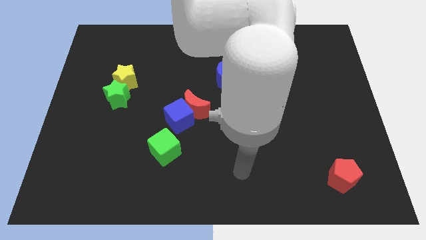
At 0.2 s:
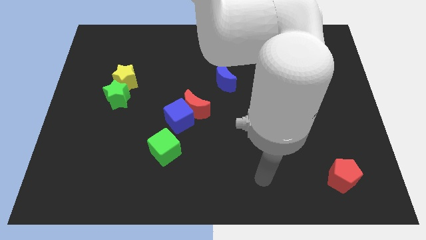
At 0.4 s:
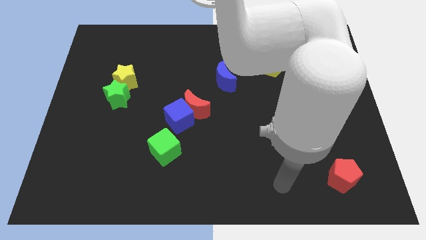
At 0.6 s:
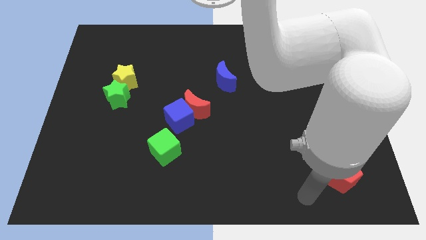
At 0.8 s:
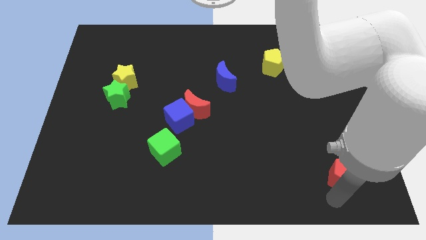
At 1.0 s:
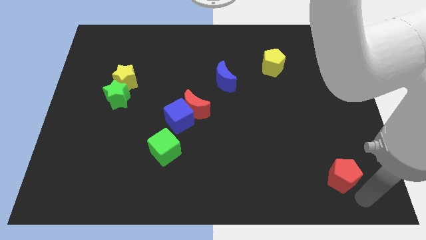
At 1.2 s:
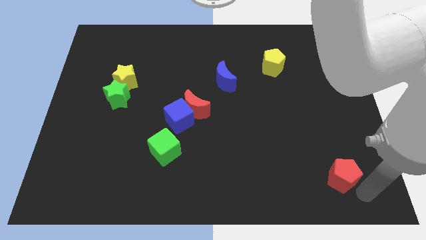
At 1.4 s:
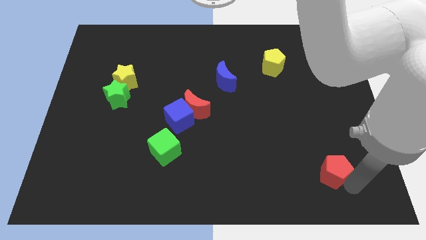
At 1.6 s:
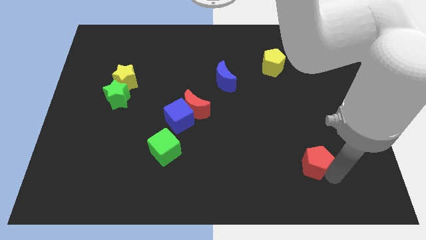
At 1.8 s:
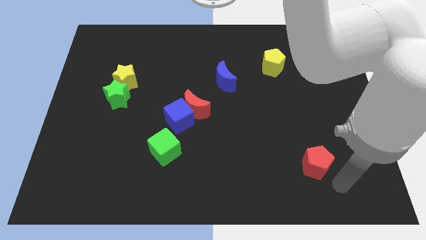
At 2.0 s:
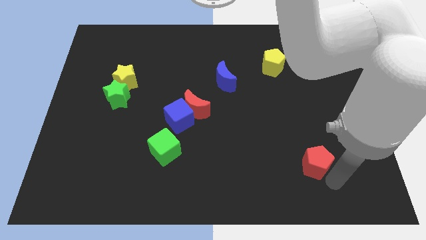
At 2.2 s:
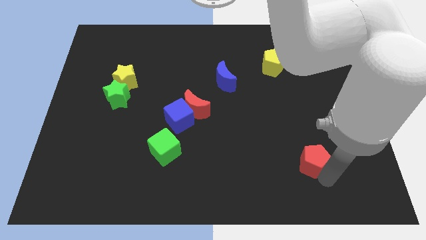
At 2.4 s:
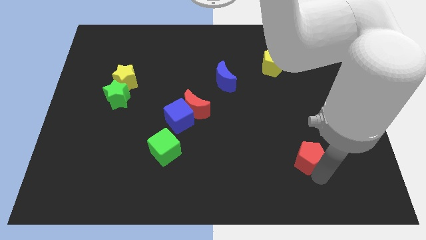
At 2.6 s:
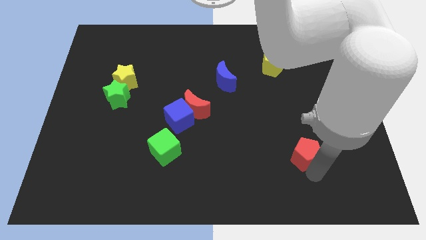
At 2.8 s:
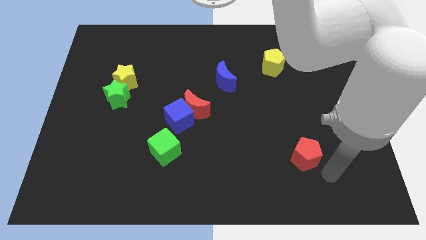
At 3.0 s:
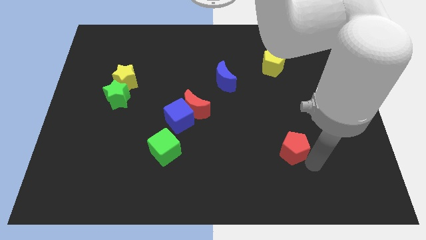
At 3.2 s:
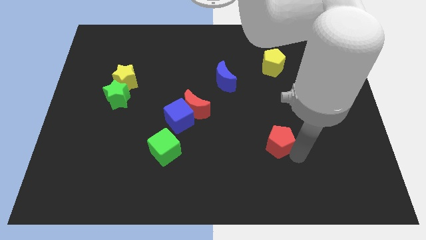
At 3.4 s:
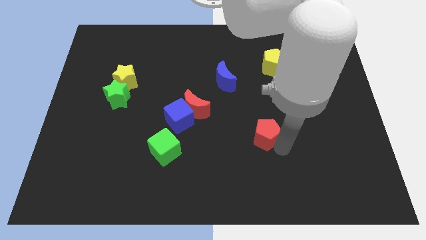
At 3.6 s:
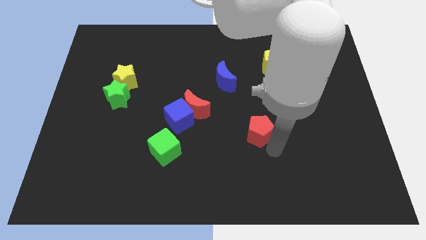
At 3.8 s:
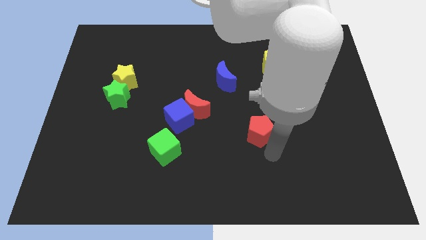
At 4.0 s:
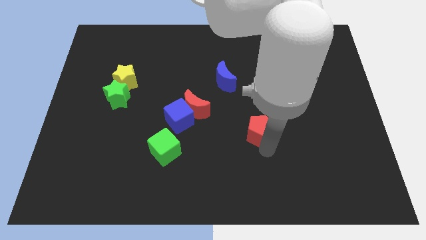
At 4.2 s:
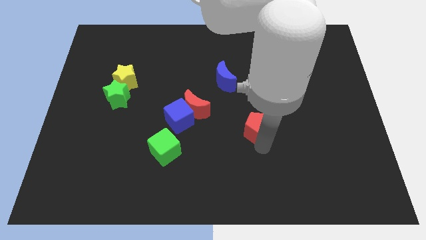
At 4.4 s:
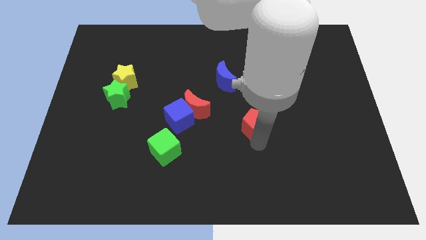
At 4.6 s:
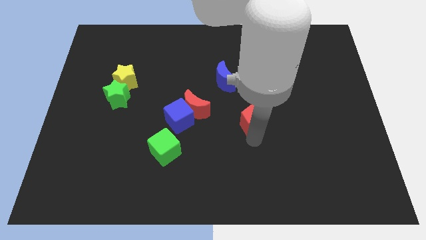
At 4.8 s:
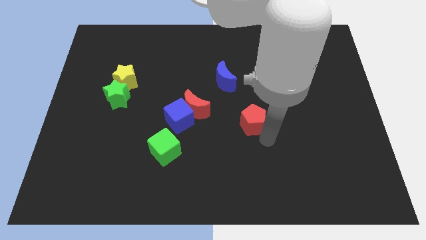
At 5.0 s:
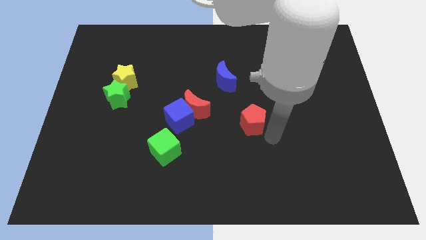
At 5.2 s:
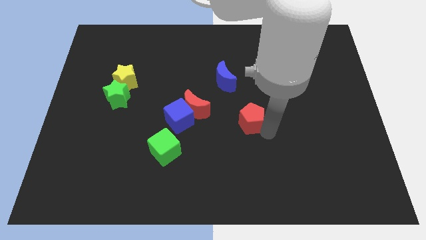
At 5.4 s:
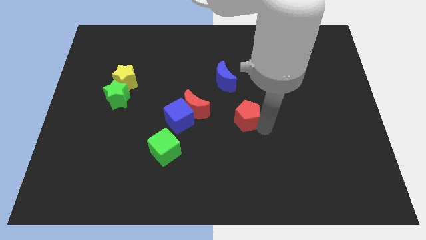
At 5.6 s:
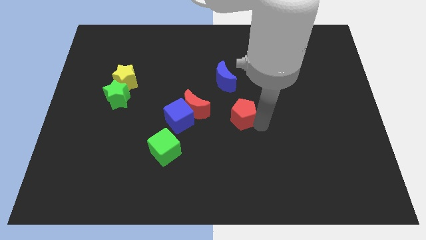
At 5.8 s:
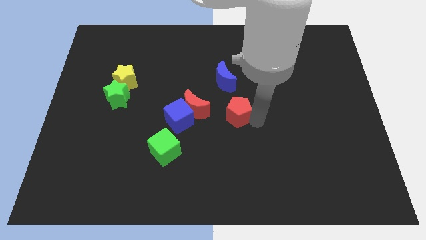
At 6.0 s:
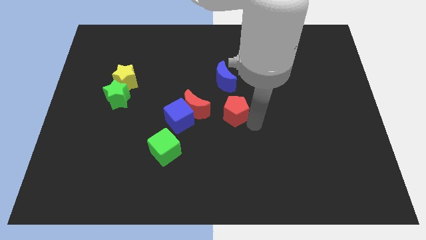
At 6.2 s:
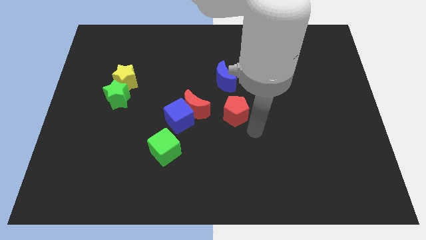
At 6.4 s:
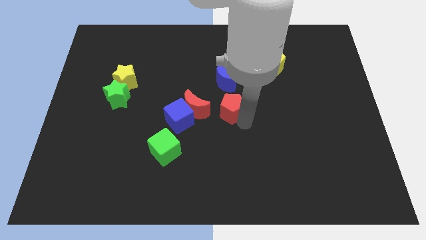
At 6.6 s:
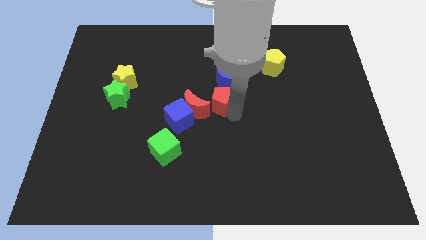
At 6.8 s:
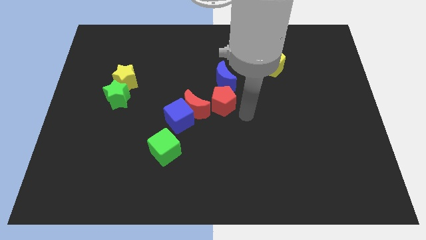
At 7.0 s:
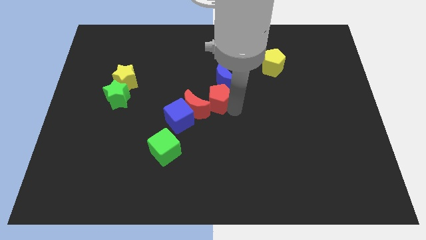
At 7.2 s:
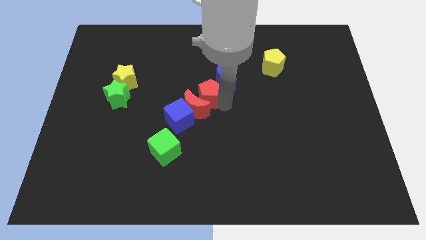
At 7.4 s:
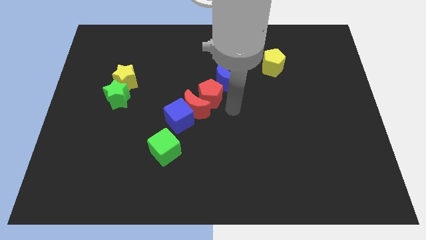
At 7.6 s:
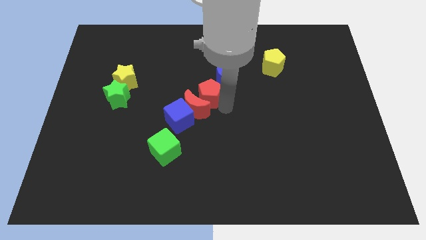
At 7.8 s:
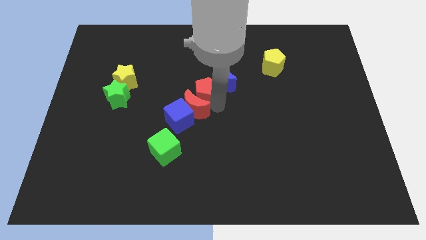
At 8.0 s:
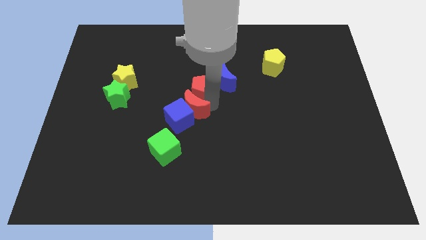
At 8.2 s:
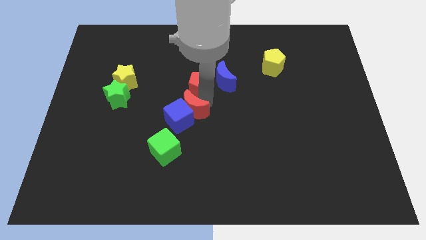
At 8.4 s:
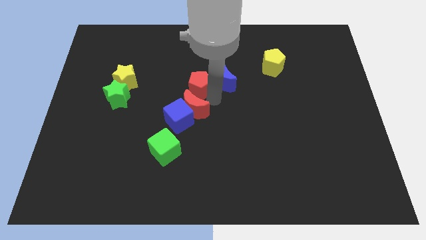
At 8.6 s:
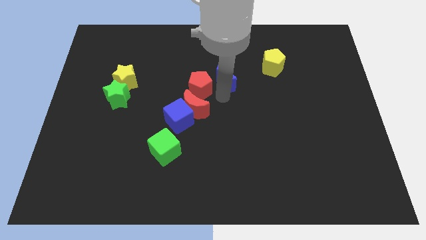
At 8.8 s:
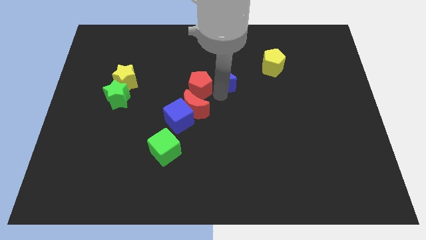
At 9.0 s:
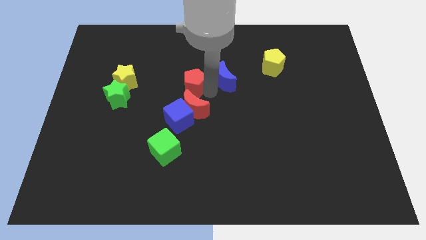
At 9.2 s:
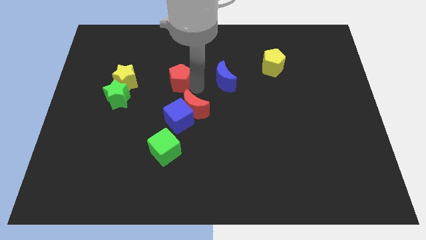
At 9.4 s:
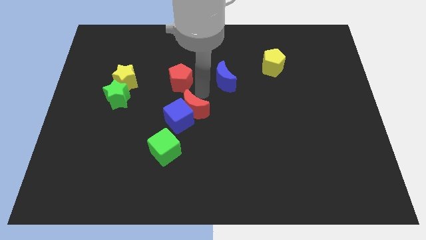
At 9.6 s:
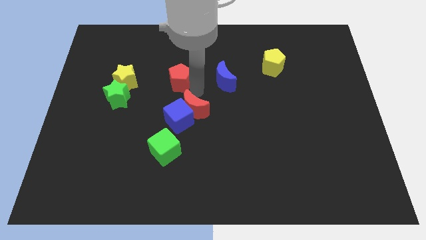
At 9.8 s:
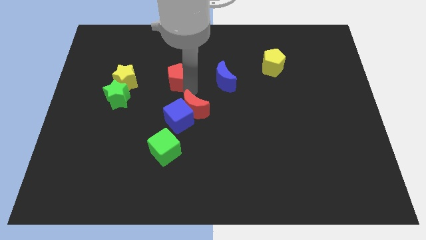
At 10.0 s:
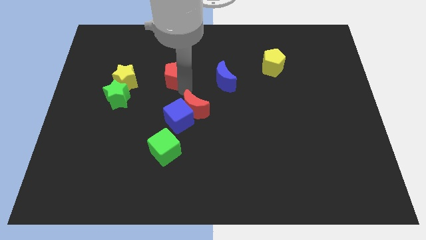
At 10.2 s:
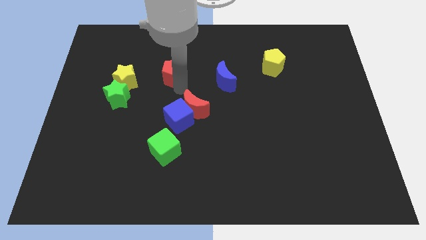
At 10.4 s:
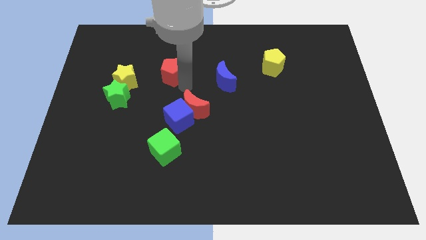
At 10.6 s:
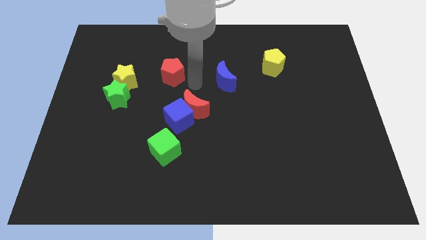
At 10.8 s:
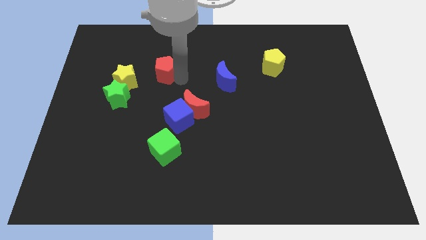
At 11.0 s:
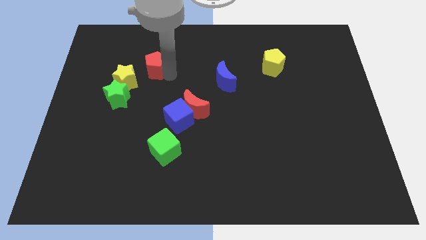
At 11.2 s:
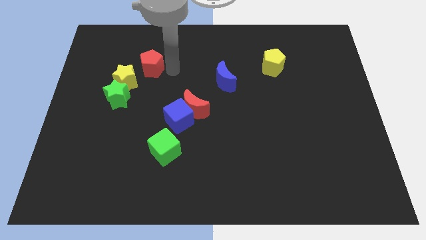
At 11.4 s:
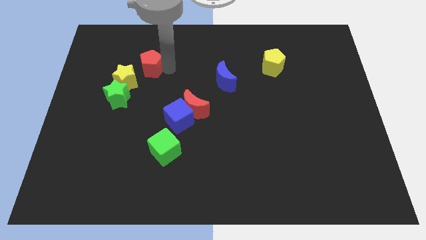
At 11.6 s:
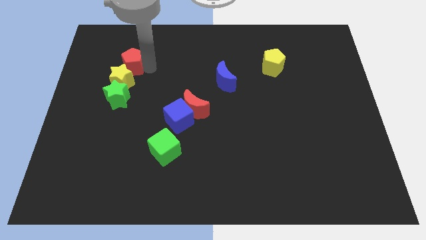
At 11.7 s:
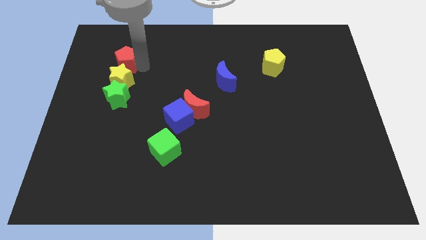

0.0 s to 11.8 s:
push the red pentagon diagonally up and to the left of the yellow star

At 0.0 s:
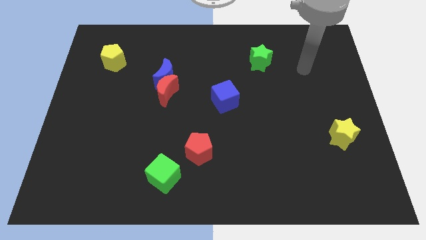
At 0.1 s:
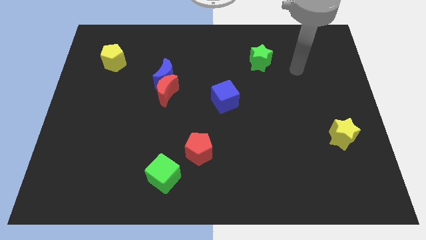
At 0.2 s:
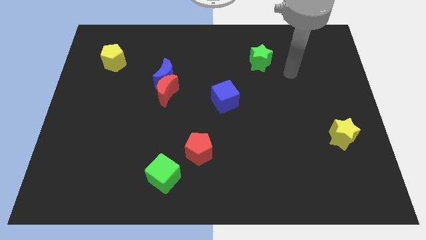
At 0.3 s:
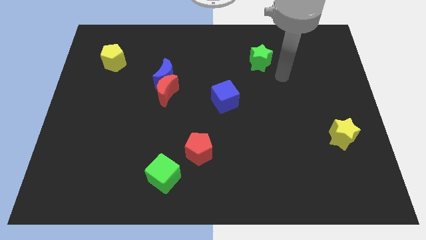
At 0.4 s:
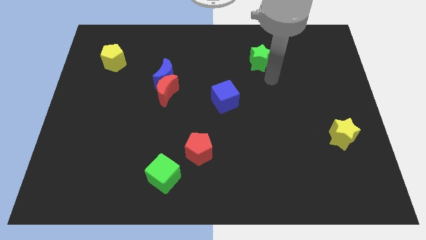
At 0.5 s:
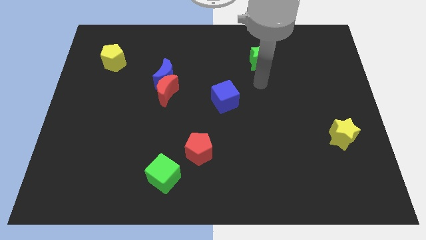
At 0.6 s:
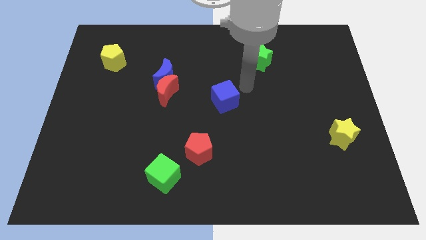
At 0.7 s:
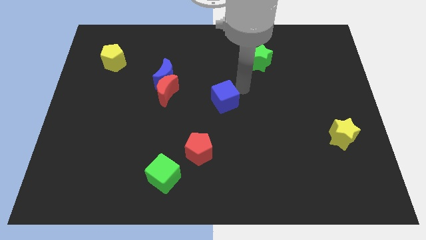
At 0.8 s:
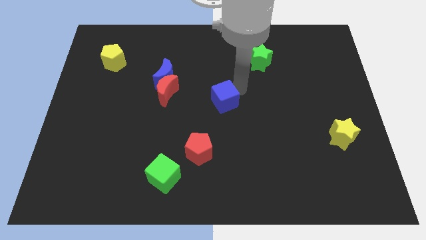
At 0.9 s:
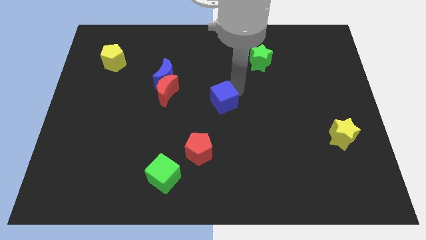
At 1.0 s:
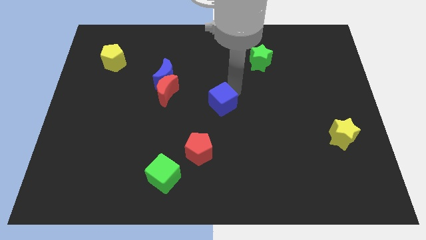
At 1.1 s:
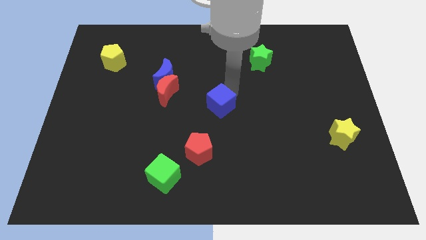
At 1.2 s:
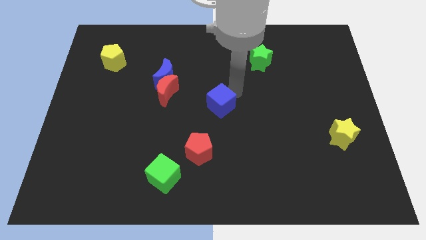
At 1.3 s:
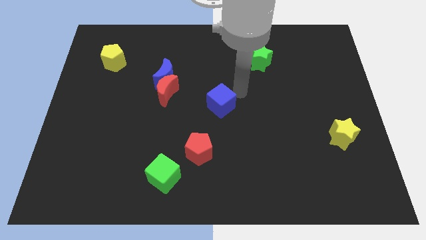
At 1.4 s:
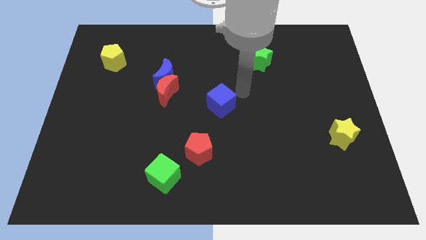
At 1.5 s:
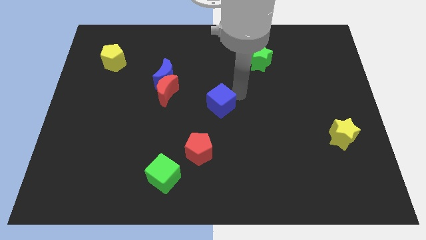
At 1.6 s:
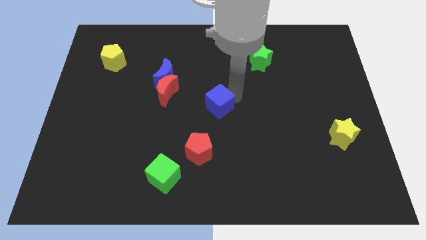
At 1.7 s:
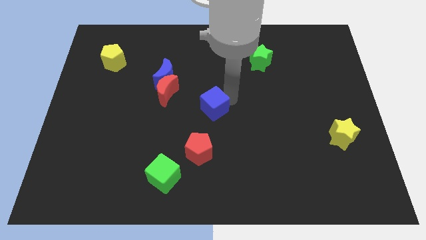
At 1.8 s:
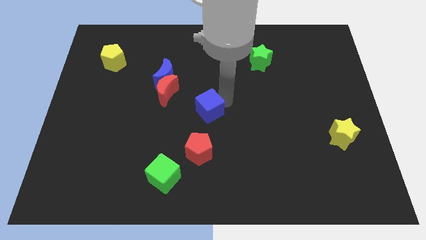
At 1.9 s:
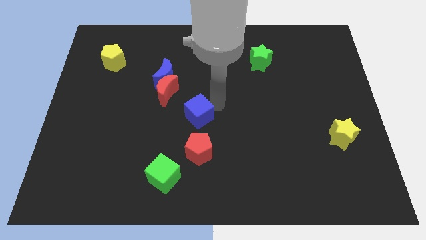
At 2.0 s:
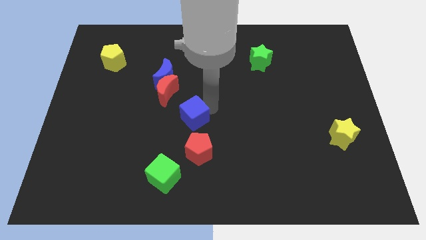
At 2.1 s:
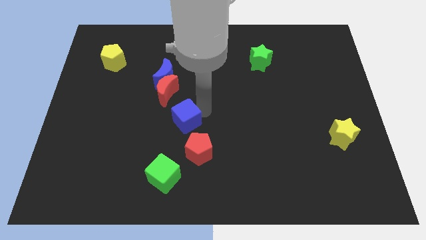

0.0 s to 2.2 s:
slide the blue cube to the top left of the red pentagon
